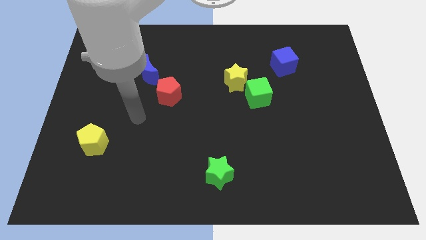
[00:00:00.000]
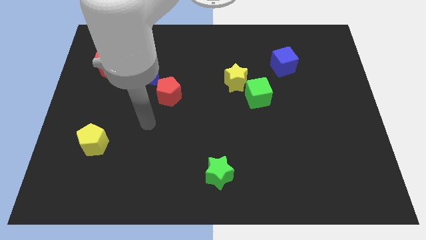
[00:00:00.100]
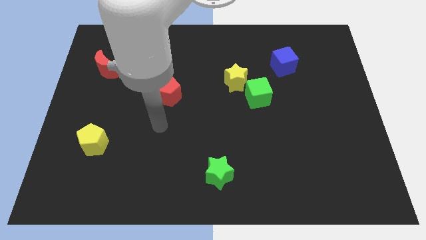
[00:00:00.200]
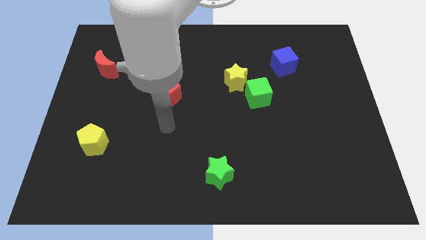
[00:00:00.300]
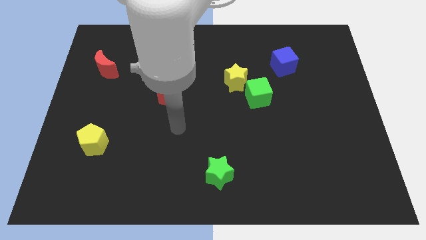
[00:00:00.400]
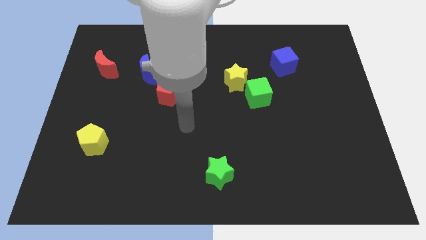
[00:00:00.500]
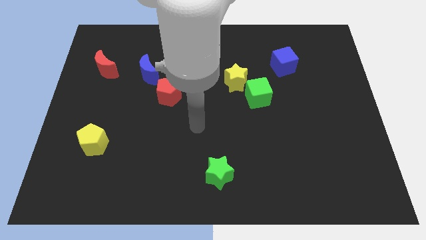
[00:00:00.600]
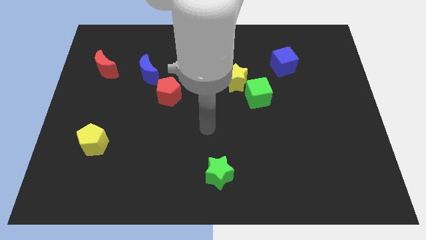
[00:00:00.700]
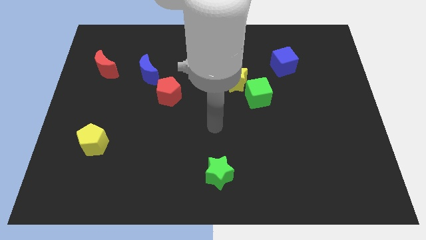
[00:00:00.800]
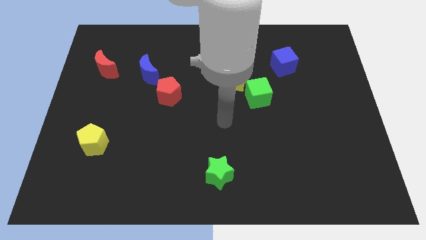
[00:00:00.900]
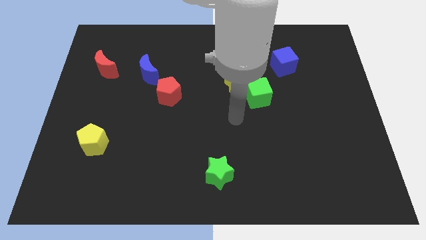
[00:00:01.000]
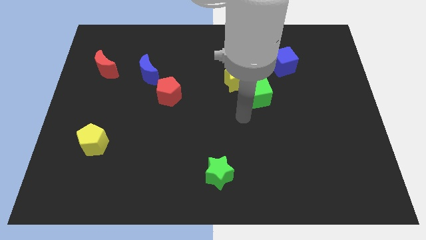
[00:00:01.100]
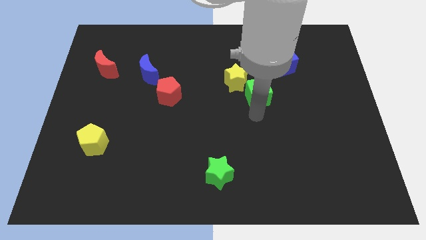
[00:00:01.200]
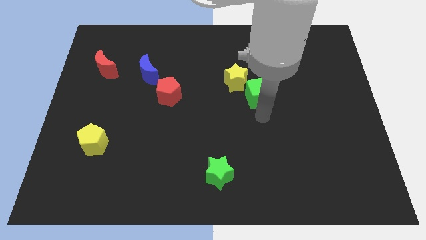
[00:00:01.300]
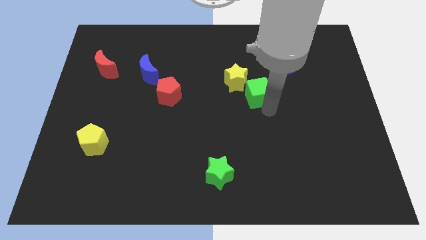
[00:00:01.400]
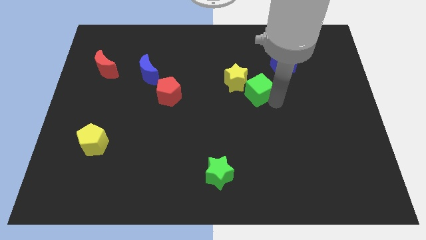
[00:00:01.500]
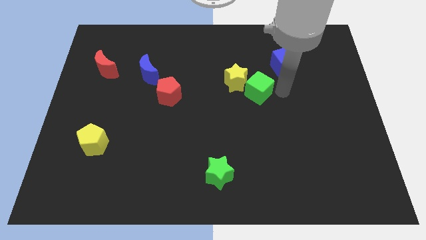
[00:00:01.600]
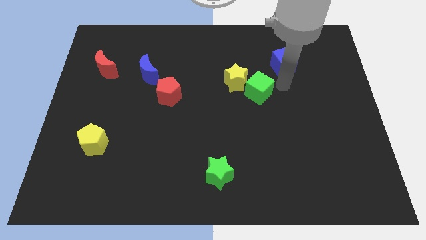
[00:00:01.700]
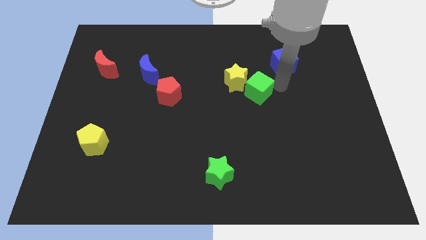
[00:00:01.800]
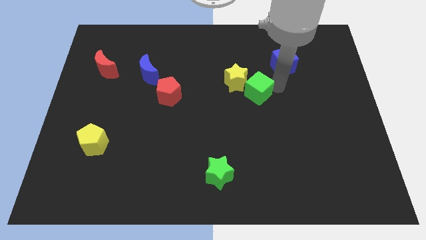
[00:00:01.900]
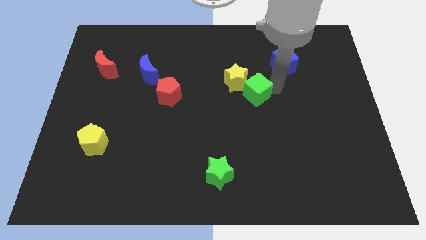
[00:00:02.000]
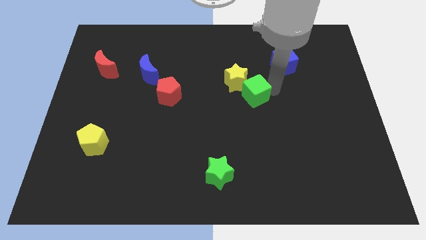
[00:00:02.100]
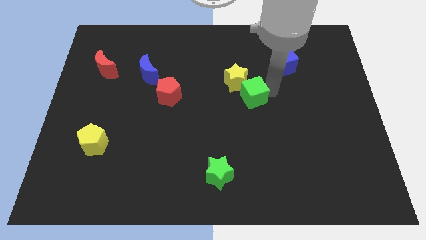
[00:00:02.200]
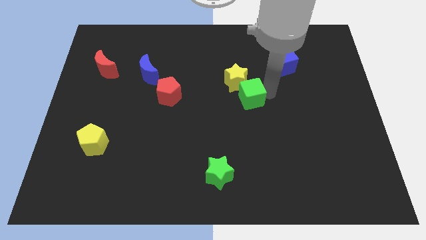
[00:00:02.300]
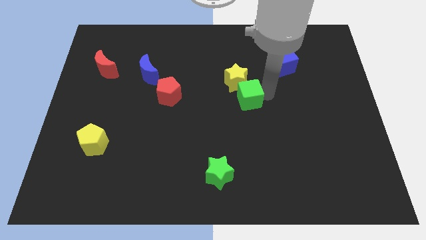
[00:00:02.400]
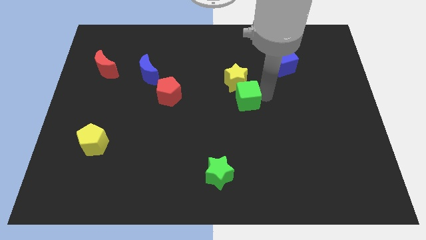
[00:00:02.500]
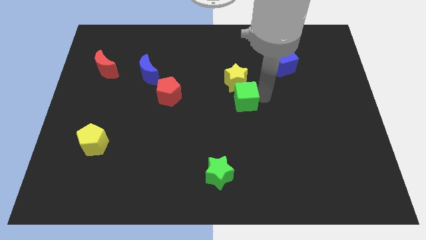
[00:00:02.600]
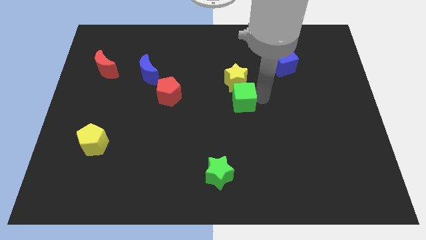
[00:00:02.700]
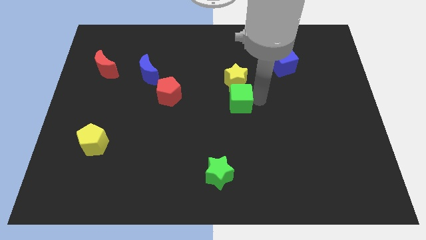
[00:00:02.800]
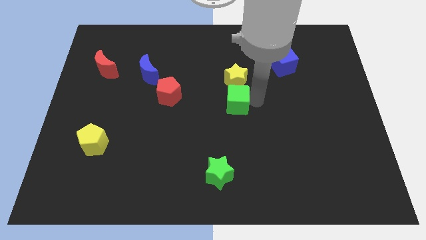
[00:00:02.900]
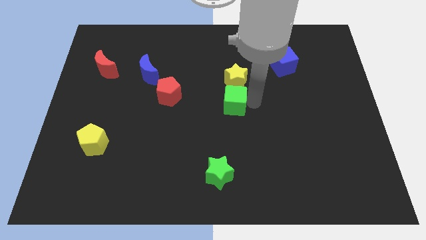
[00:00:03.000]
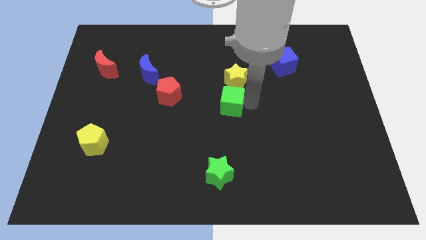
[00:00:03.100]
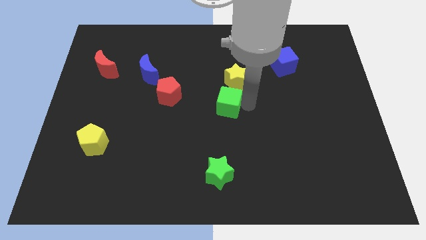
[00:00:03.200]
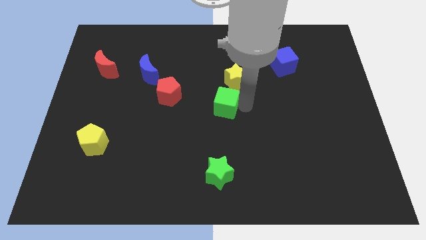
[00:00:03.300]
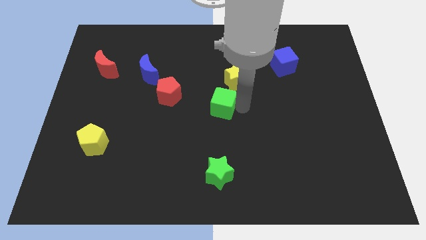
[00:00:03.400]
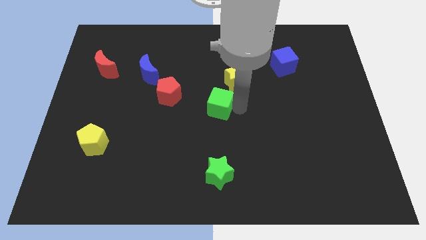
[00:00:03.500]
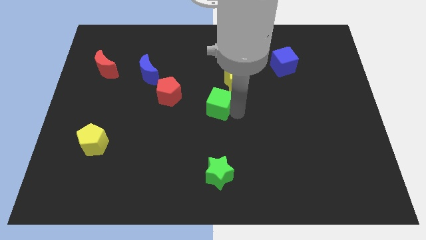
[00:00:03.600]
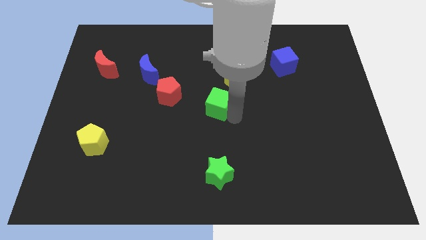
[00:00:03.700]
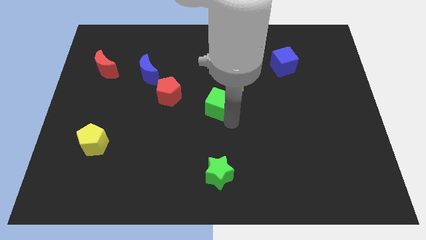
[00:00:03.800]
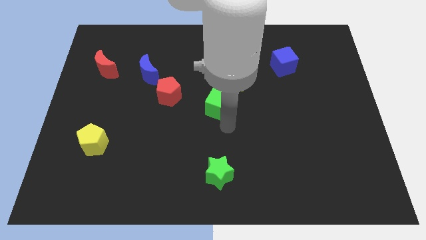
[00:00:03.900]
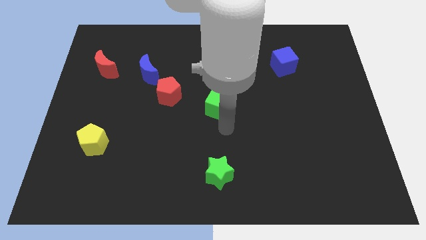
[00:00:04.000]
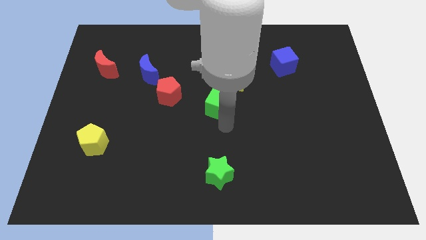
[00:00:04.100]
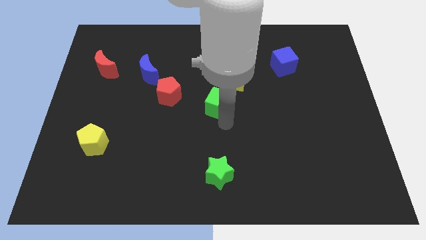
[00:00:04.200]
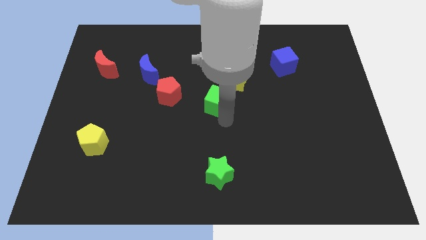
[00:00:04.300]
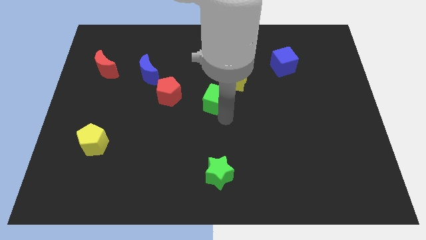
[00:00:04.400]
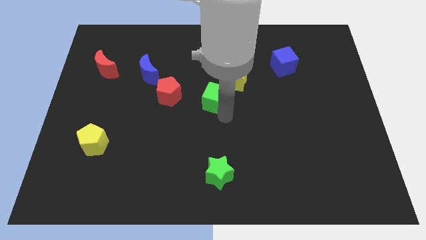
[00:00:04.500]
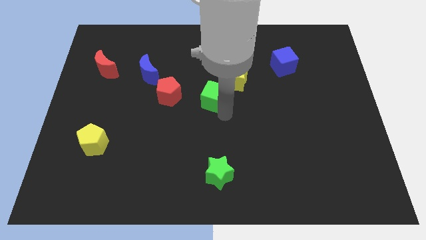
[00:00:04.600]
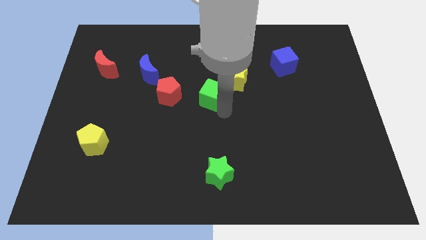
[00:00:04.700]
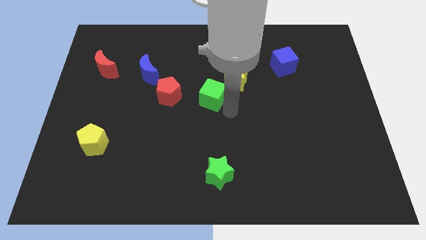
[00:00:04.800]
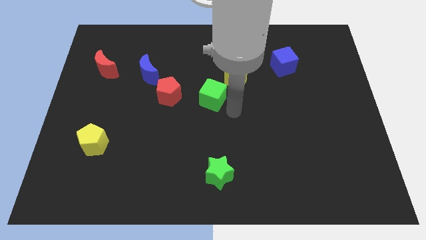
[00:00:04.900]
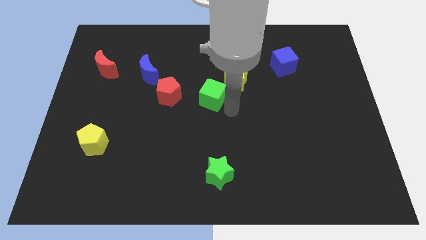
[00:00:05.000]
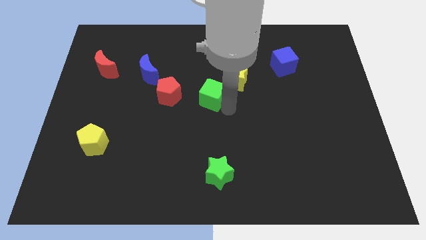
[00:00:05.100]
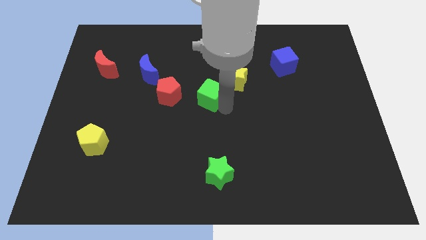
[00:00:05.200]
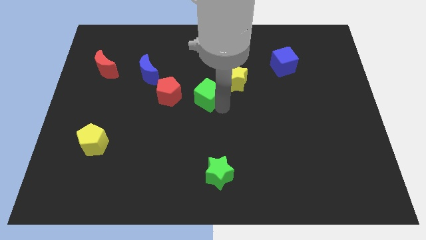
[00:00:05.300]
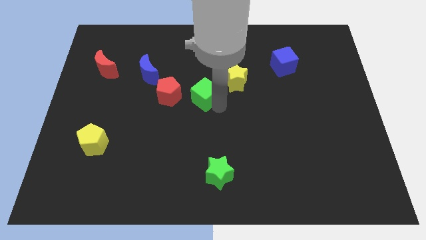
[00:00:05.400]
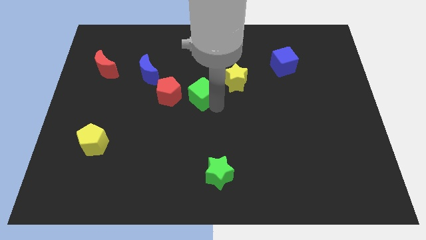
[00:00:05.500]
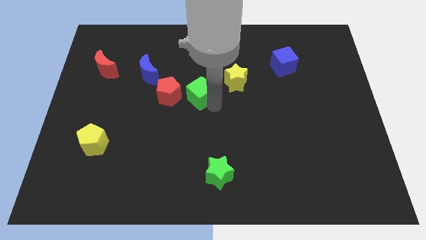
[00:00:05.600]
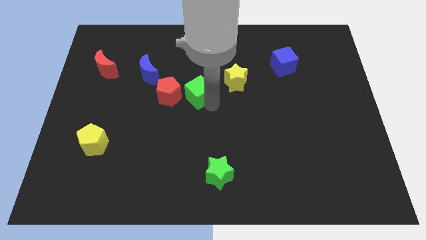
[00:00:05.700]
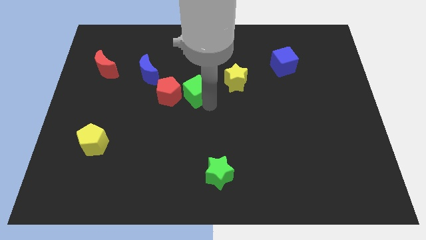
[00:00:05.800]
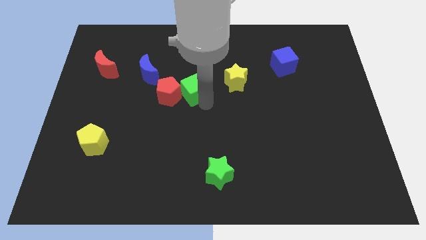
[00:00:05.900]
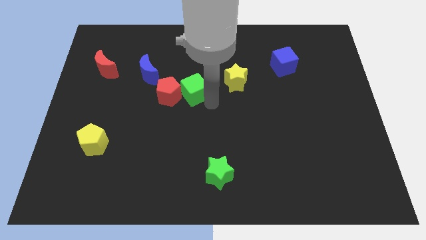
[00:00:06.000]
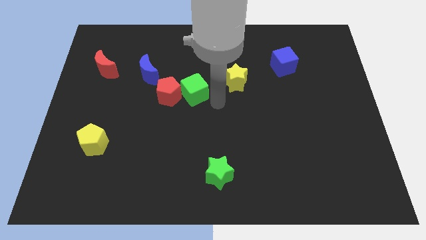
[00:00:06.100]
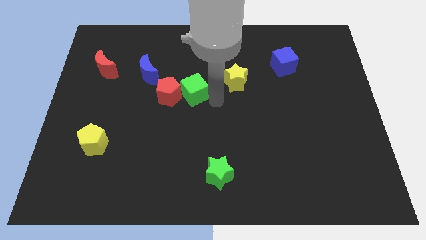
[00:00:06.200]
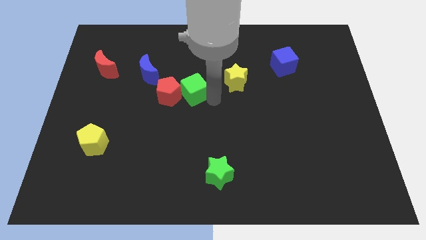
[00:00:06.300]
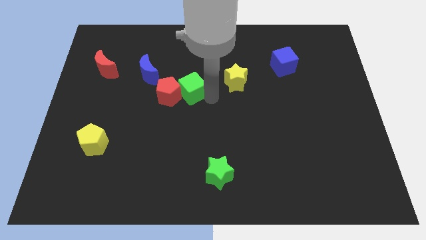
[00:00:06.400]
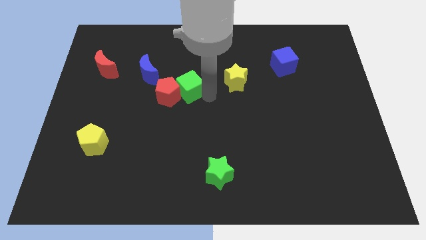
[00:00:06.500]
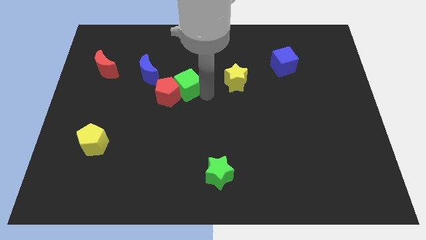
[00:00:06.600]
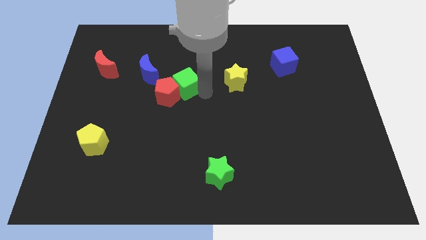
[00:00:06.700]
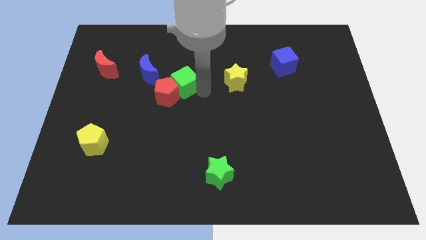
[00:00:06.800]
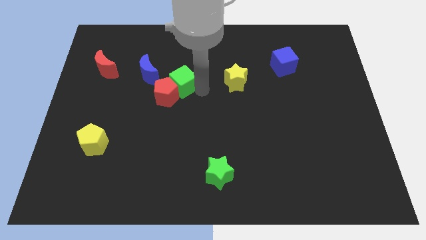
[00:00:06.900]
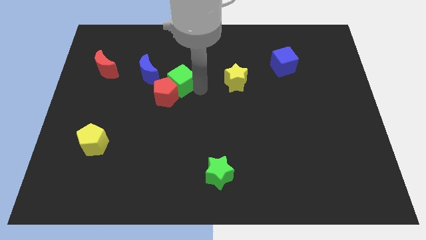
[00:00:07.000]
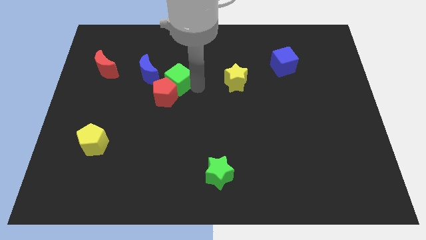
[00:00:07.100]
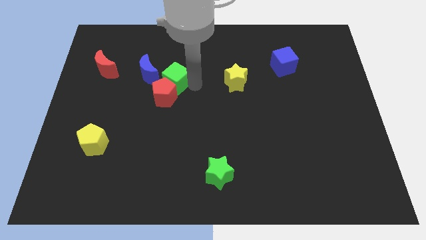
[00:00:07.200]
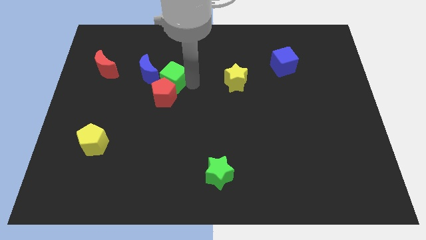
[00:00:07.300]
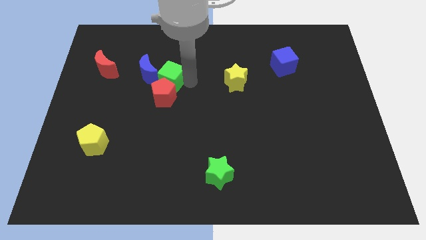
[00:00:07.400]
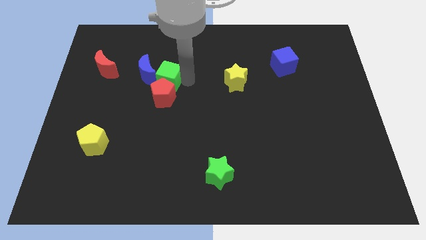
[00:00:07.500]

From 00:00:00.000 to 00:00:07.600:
push the green cube towards the blue moon
